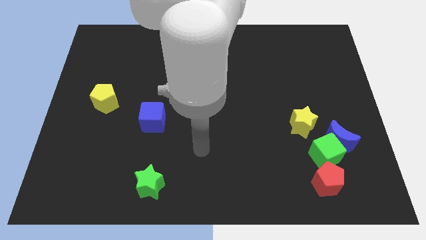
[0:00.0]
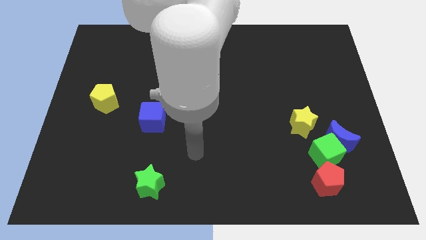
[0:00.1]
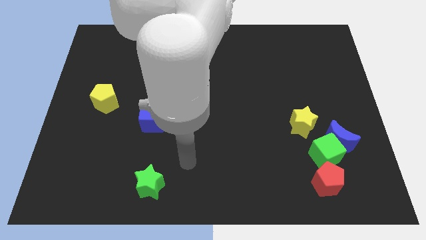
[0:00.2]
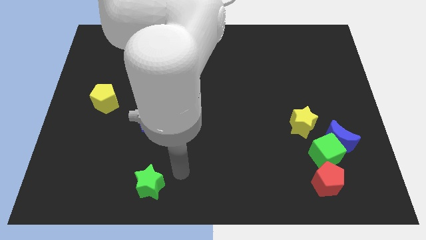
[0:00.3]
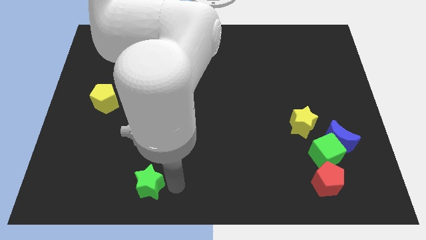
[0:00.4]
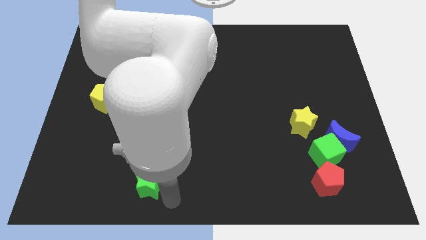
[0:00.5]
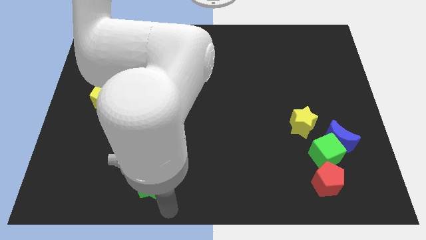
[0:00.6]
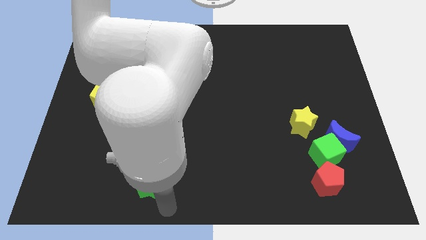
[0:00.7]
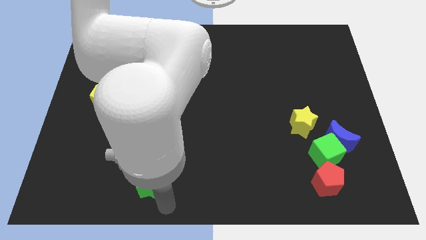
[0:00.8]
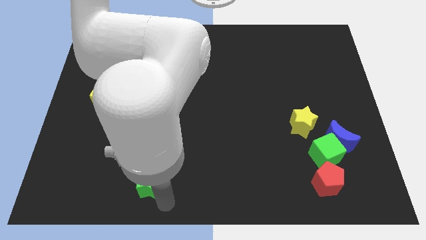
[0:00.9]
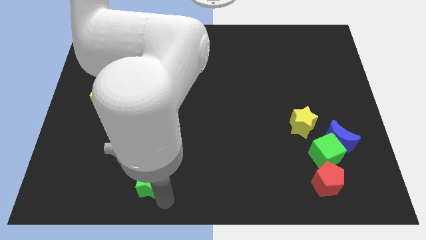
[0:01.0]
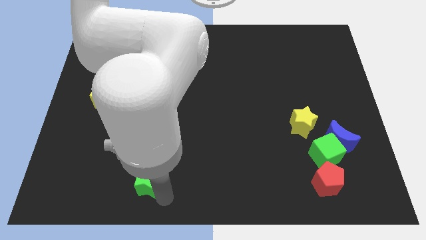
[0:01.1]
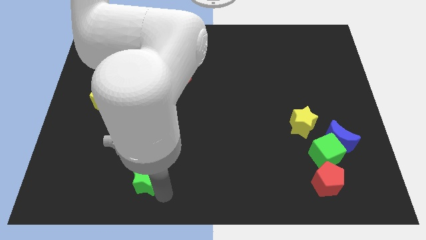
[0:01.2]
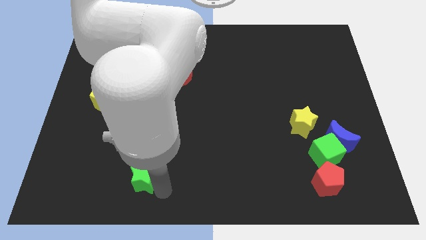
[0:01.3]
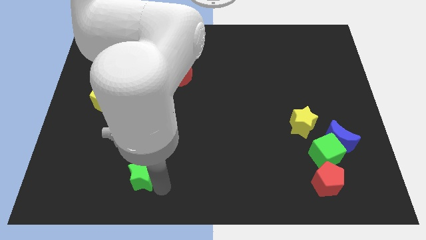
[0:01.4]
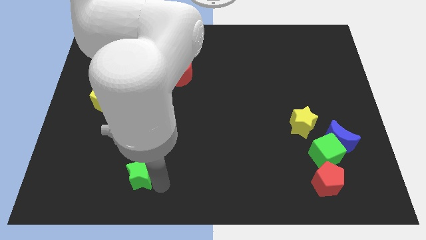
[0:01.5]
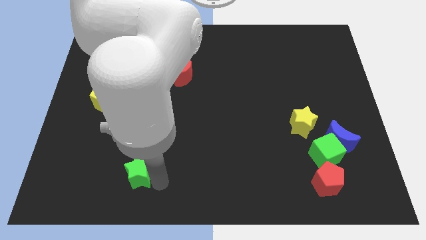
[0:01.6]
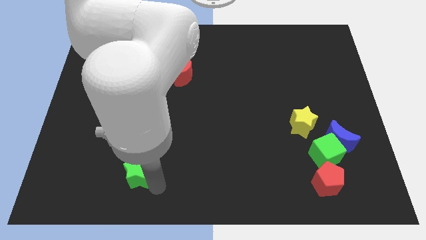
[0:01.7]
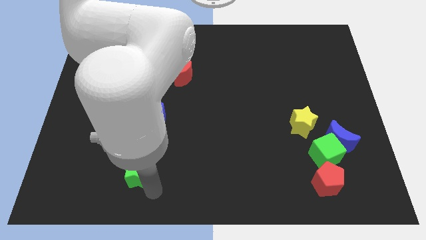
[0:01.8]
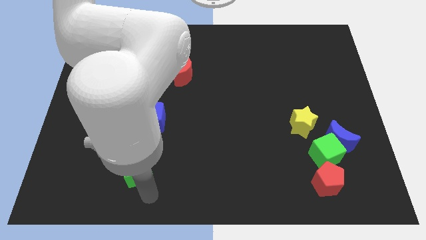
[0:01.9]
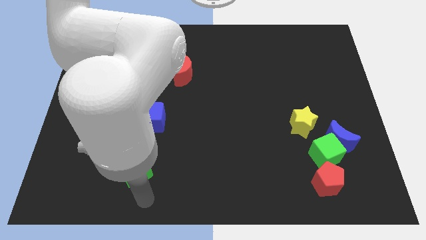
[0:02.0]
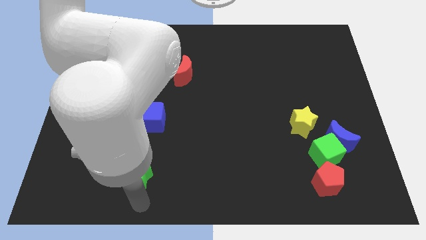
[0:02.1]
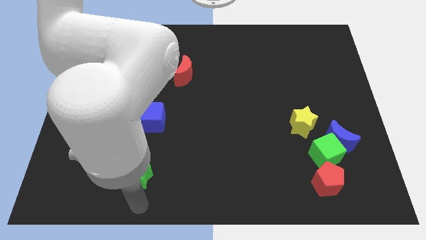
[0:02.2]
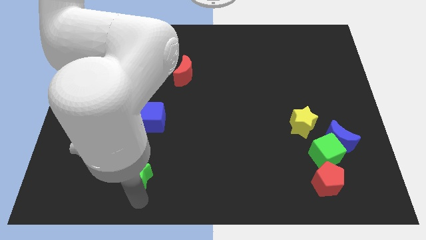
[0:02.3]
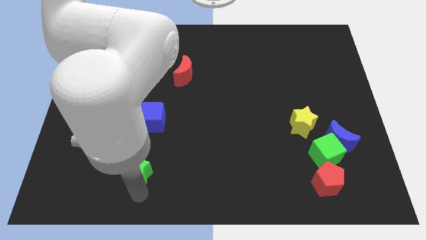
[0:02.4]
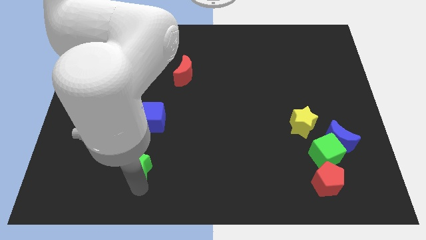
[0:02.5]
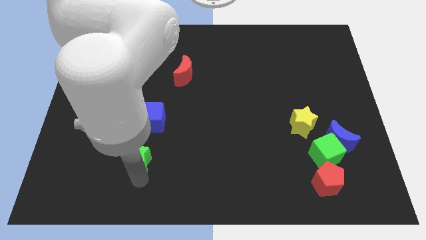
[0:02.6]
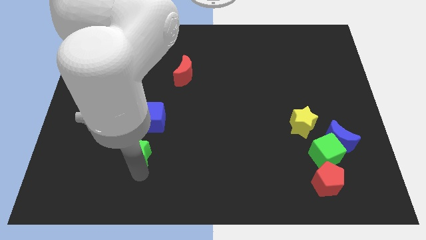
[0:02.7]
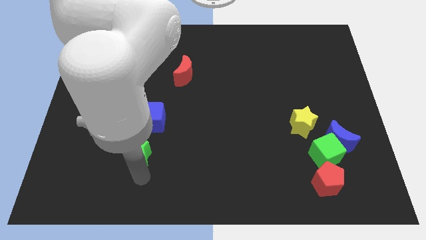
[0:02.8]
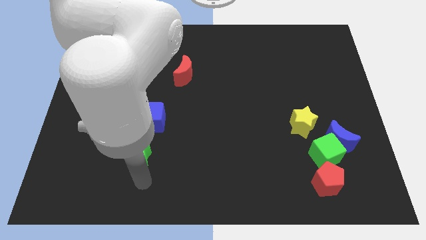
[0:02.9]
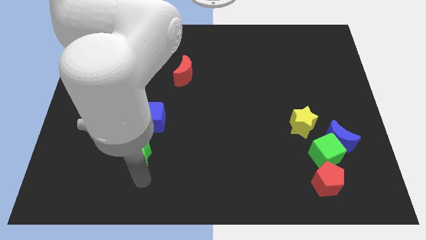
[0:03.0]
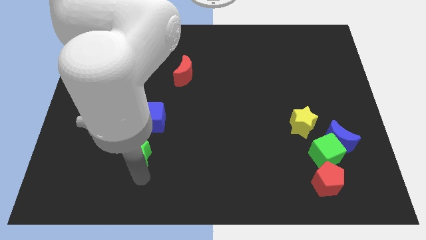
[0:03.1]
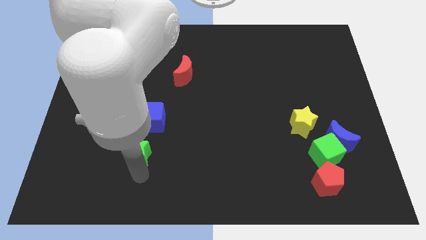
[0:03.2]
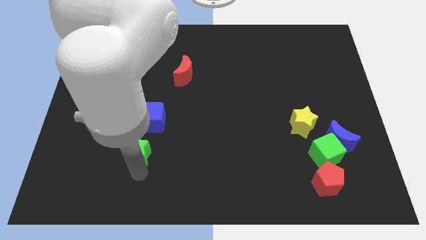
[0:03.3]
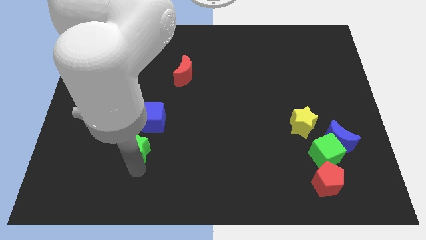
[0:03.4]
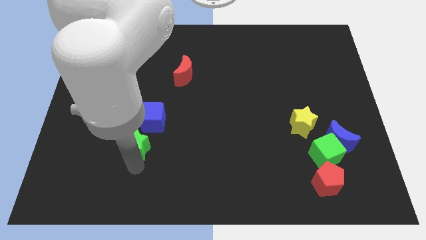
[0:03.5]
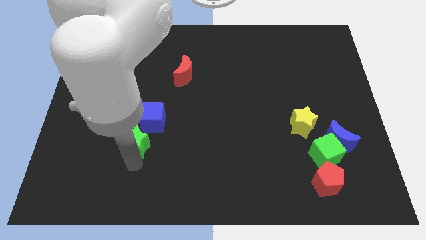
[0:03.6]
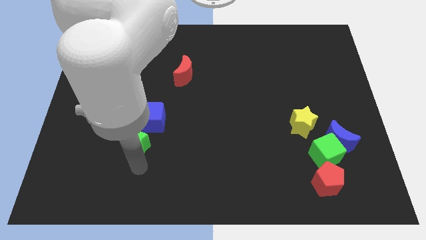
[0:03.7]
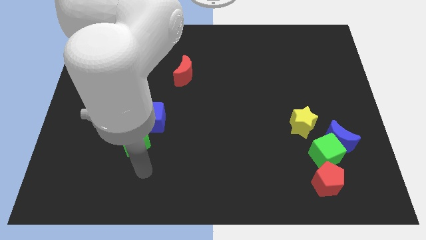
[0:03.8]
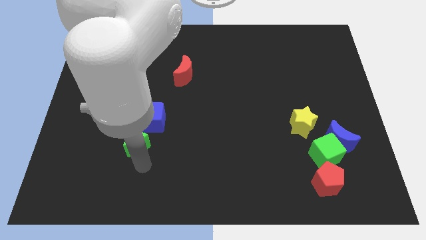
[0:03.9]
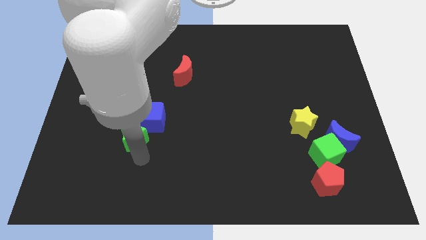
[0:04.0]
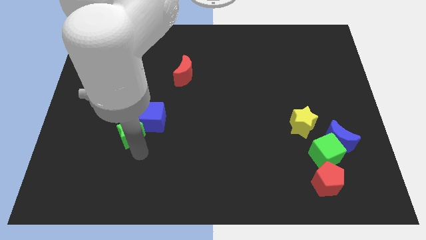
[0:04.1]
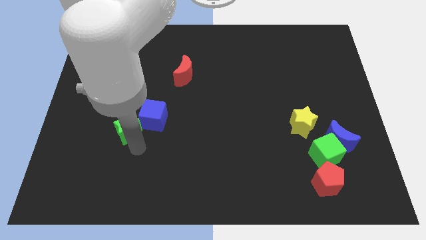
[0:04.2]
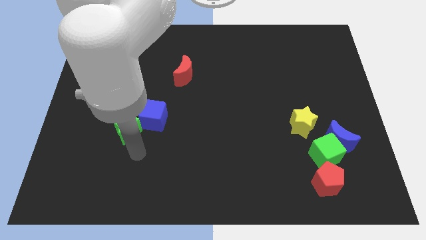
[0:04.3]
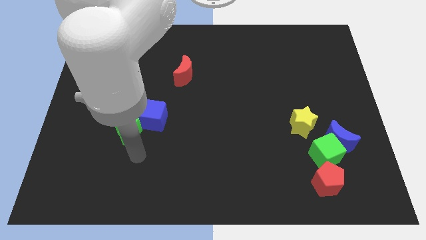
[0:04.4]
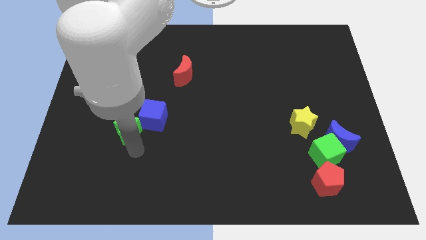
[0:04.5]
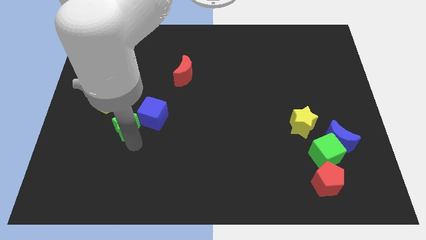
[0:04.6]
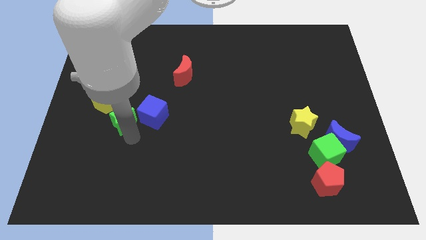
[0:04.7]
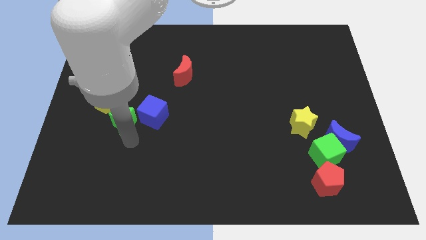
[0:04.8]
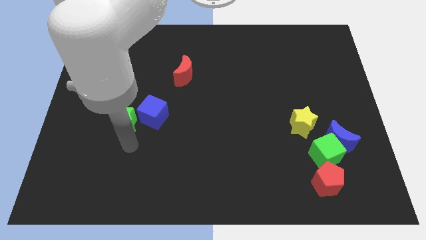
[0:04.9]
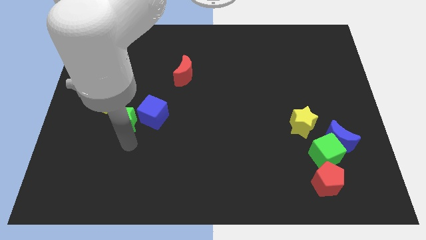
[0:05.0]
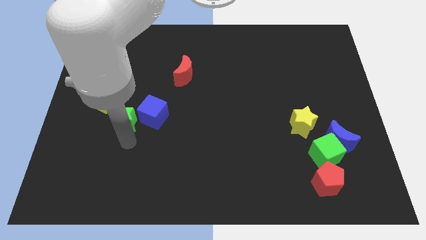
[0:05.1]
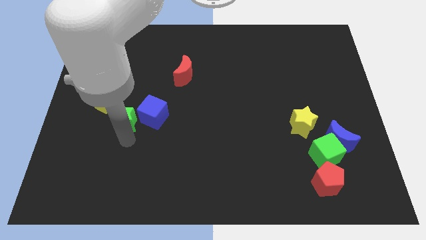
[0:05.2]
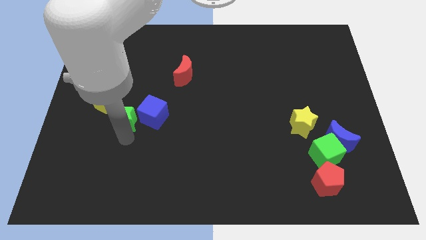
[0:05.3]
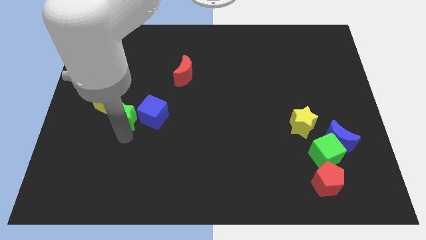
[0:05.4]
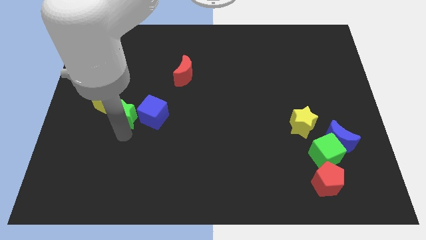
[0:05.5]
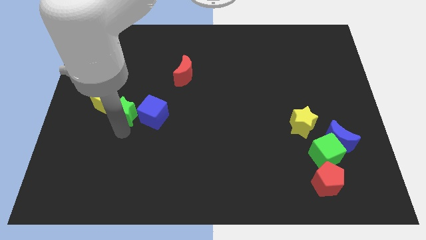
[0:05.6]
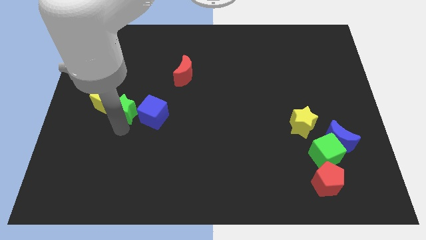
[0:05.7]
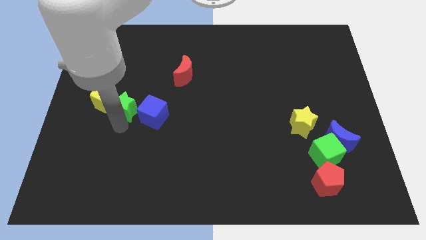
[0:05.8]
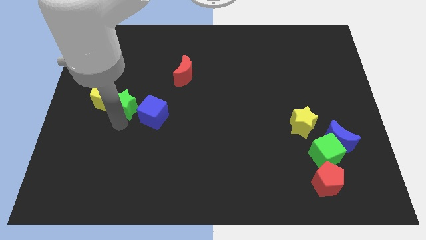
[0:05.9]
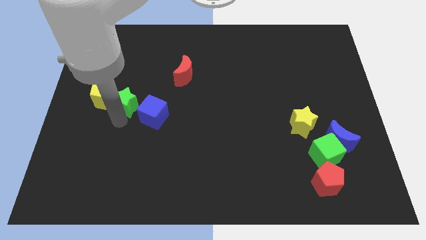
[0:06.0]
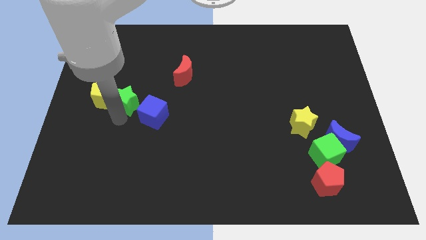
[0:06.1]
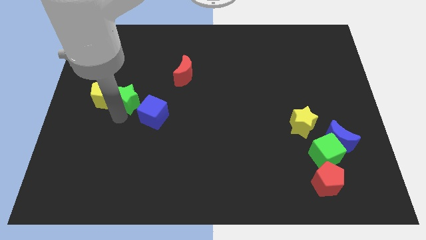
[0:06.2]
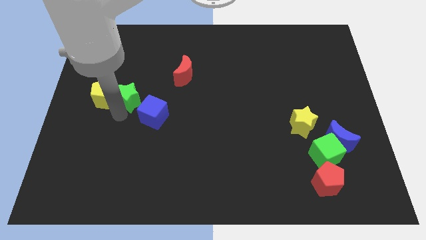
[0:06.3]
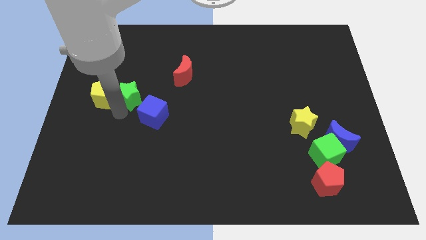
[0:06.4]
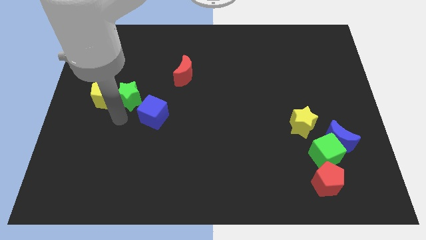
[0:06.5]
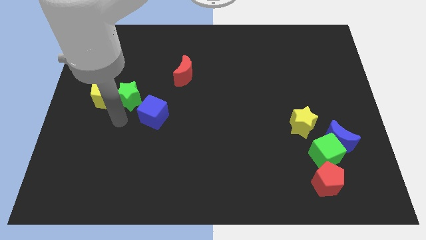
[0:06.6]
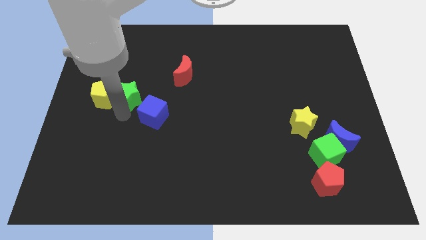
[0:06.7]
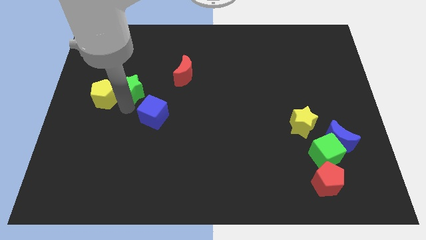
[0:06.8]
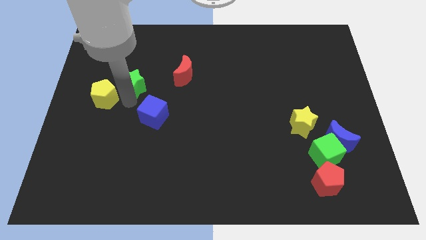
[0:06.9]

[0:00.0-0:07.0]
move the green star to the left of the red moon

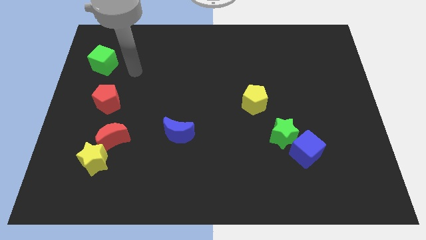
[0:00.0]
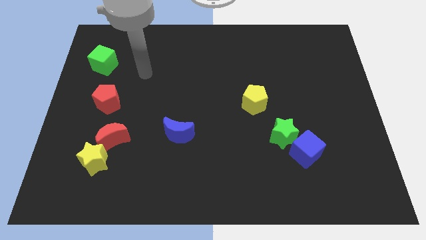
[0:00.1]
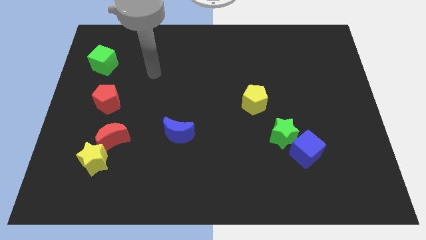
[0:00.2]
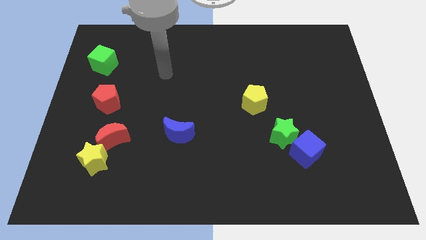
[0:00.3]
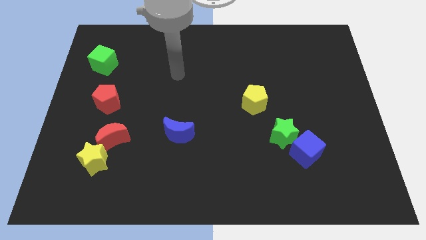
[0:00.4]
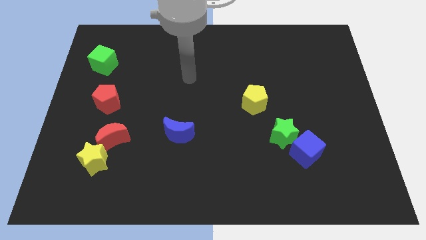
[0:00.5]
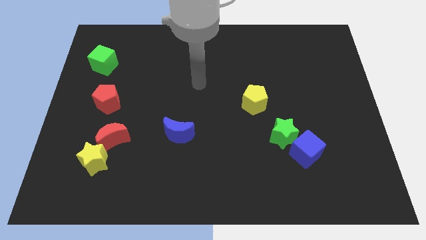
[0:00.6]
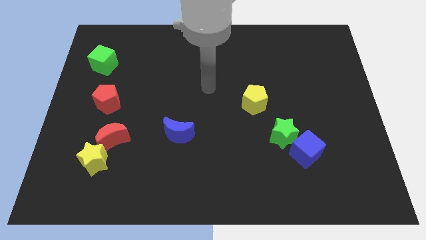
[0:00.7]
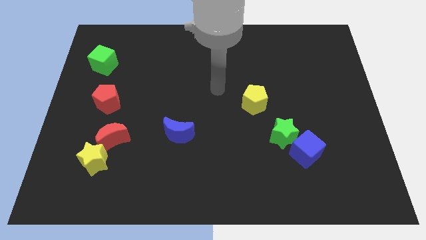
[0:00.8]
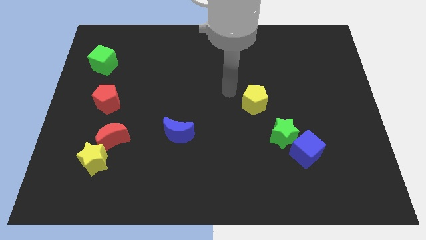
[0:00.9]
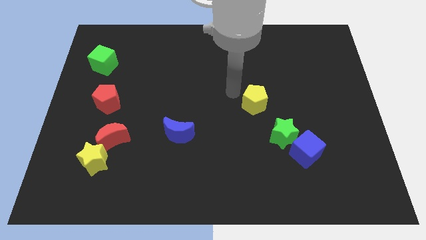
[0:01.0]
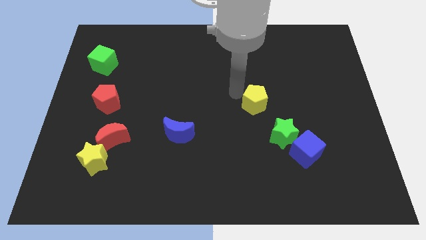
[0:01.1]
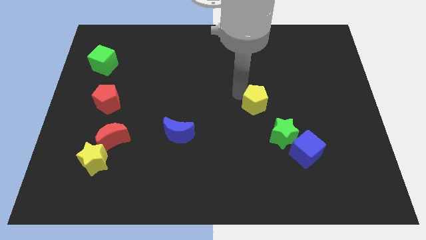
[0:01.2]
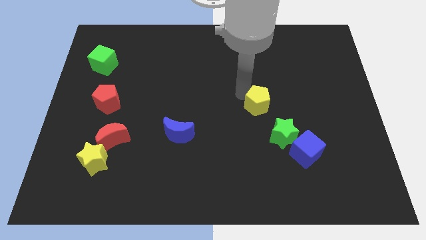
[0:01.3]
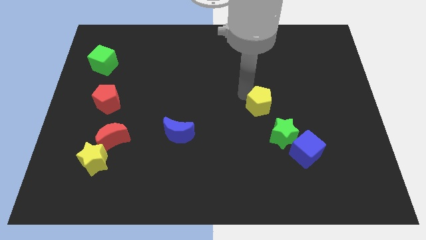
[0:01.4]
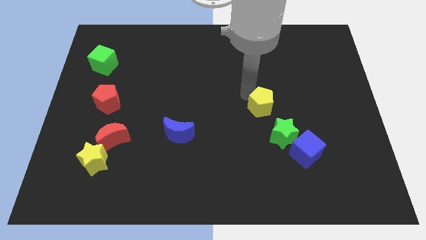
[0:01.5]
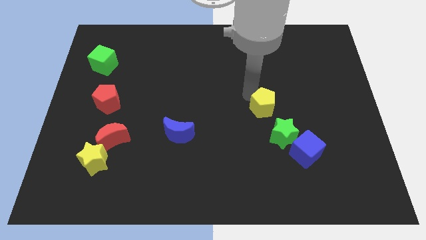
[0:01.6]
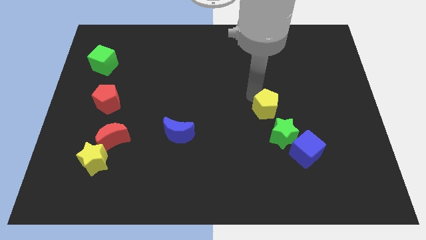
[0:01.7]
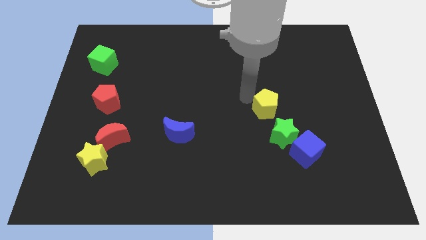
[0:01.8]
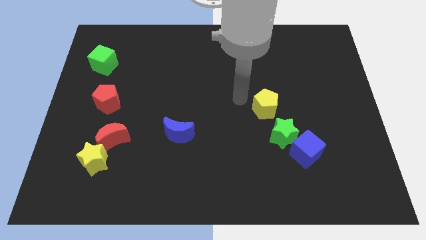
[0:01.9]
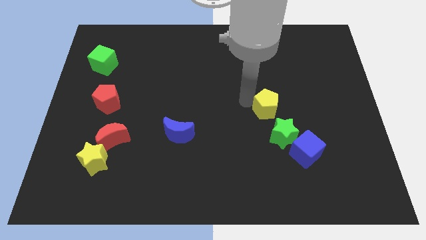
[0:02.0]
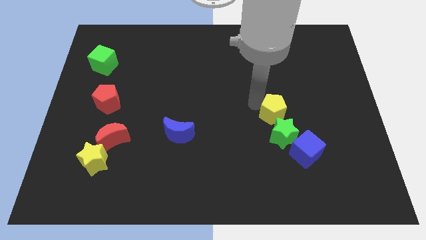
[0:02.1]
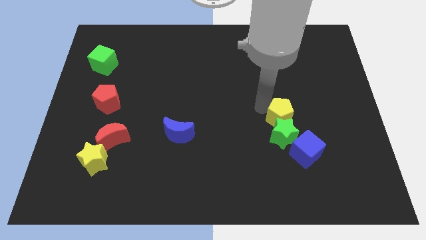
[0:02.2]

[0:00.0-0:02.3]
put the yellow pentagon to the top right side of the green star
